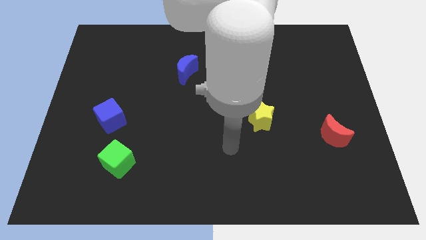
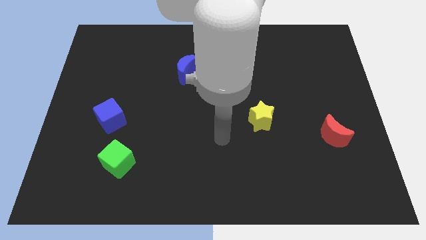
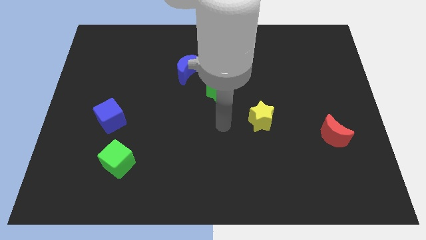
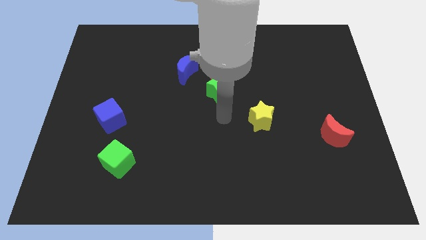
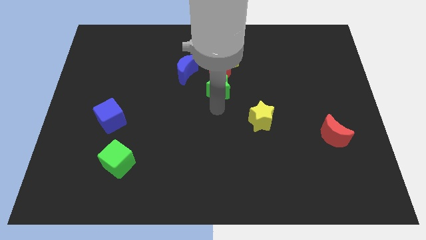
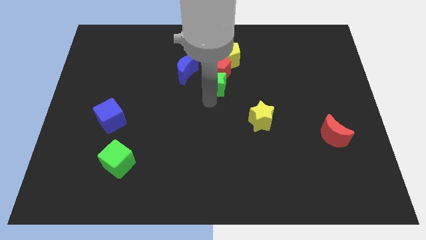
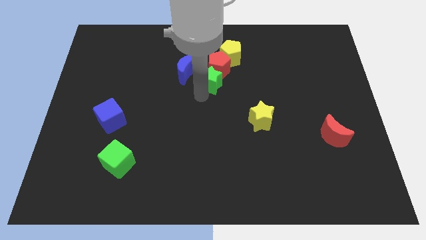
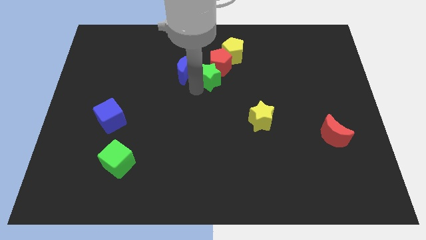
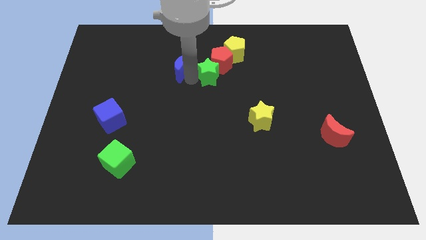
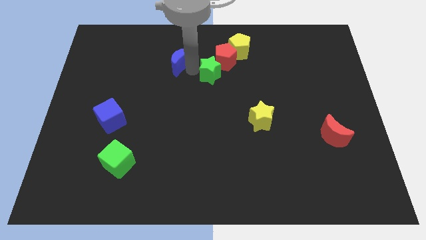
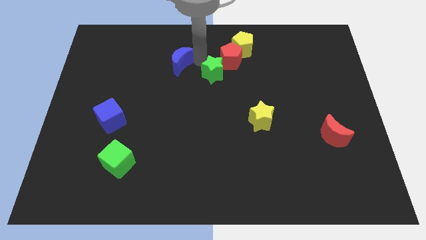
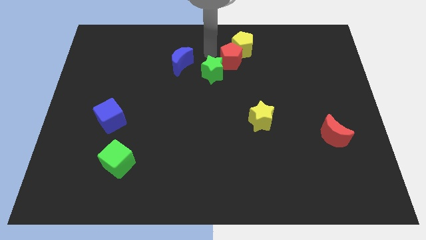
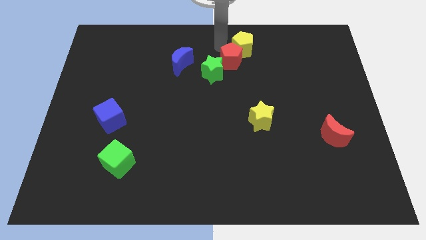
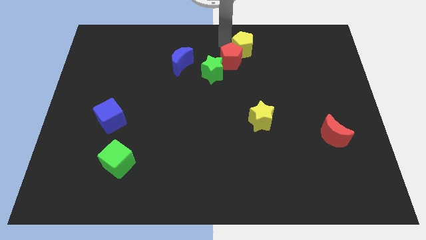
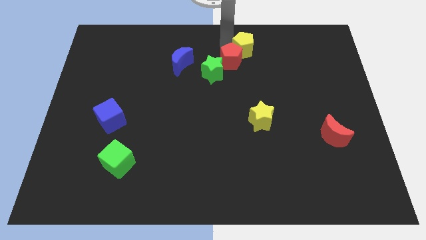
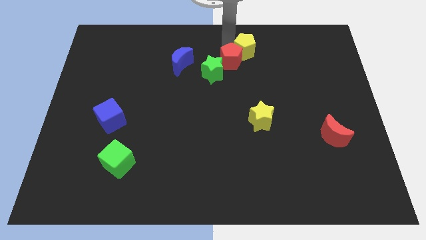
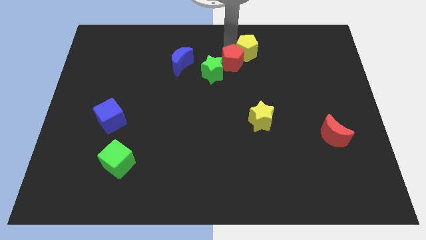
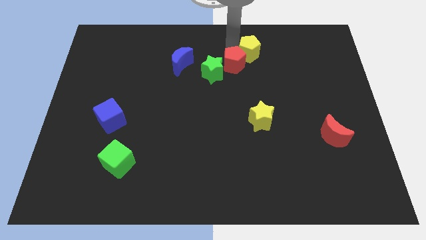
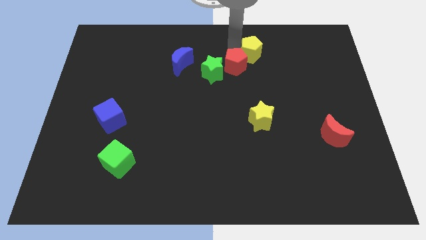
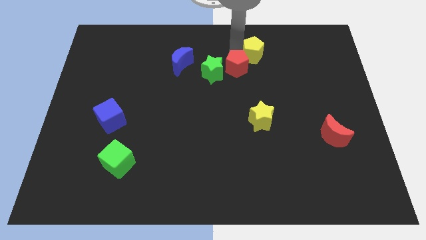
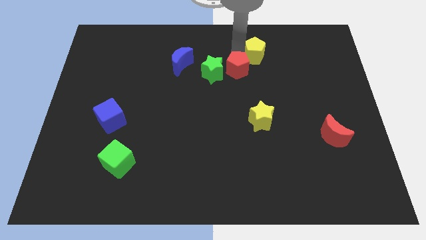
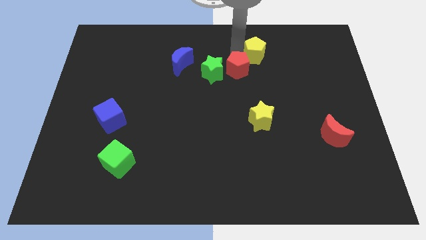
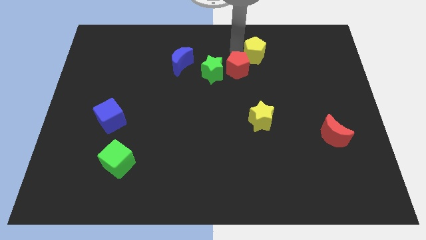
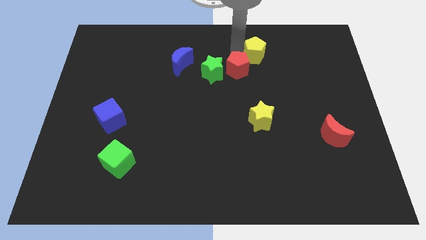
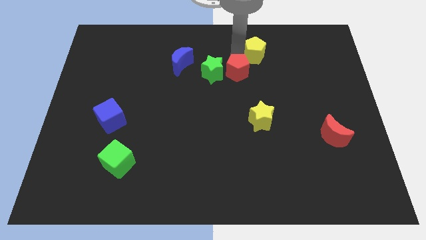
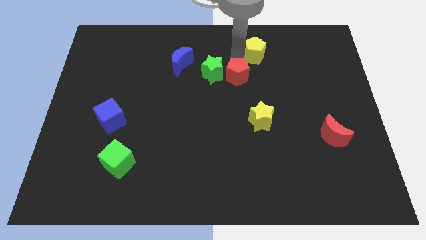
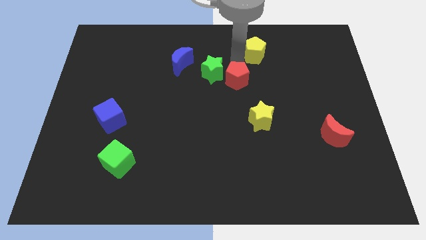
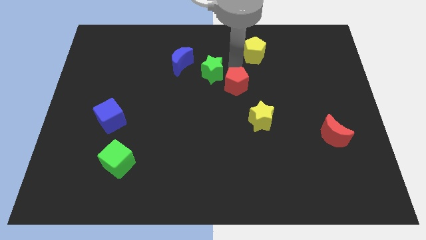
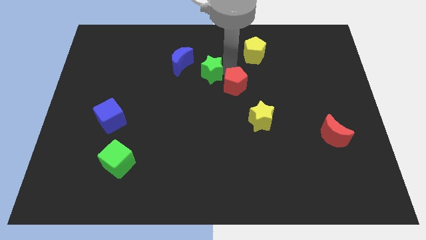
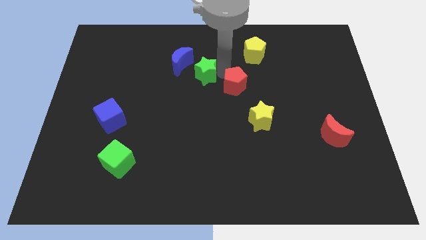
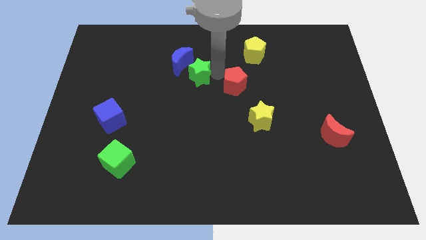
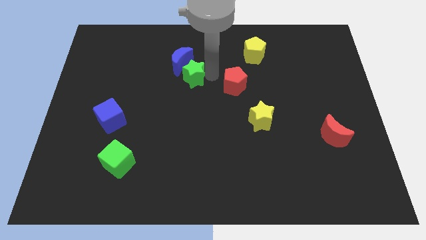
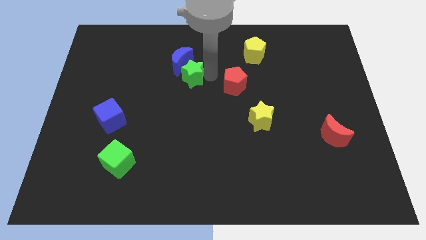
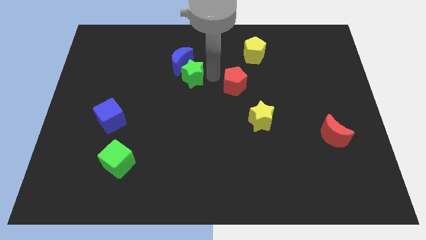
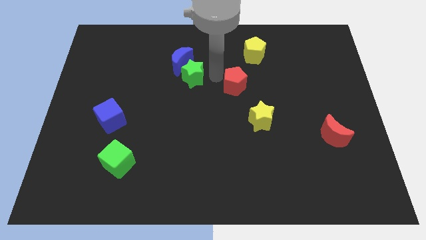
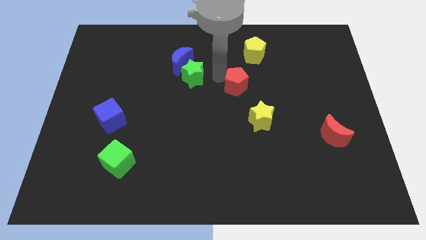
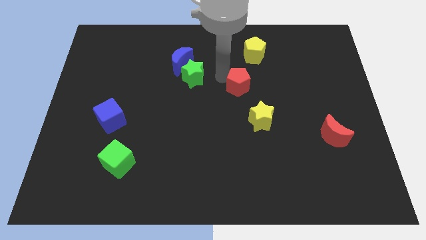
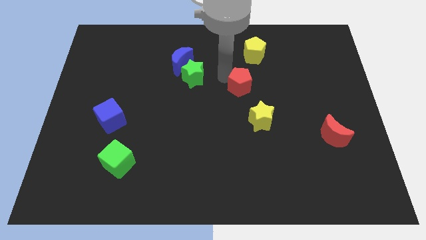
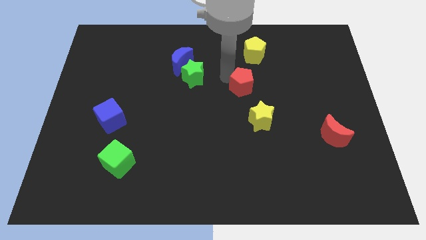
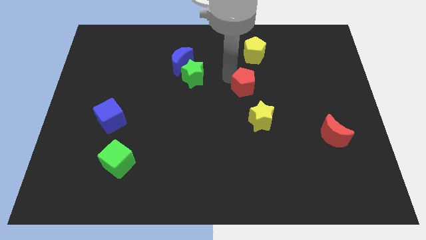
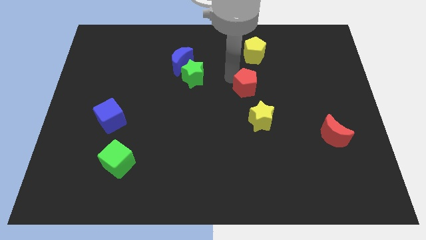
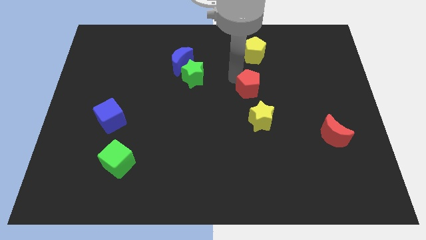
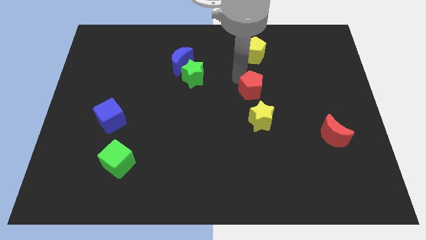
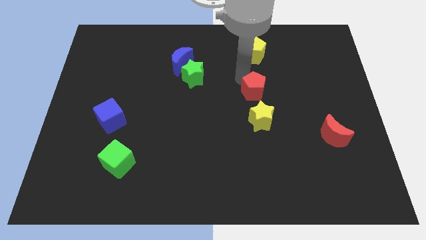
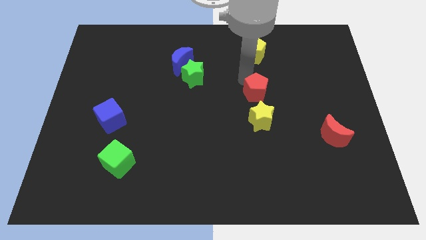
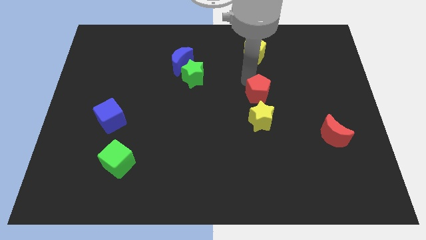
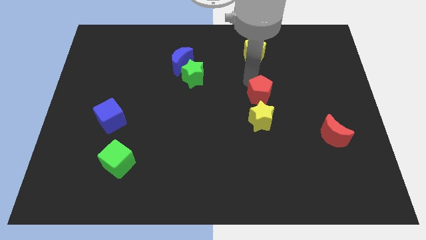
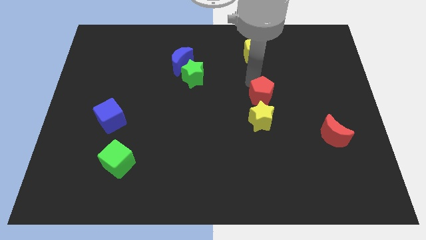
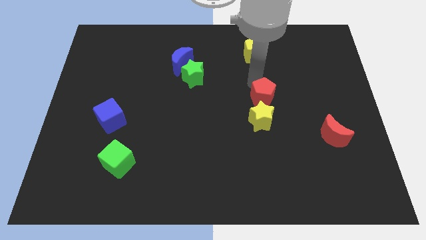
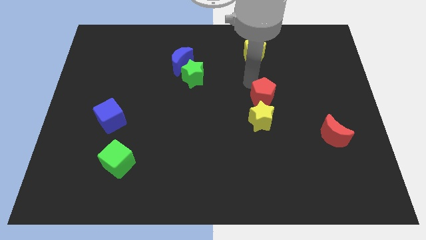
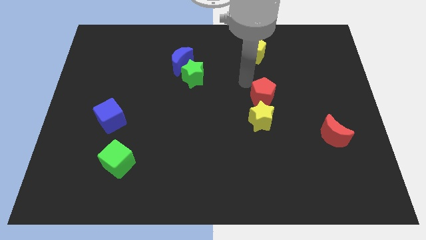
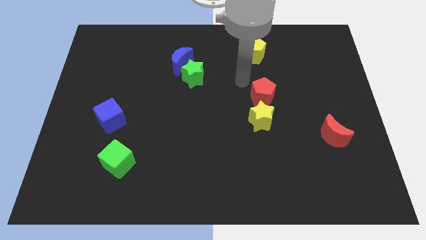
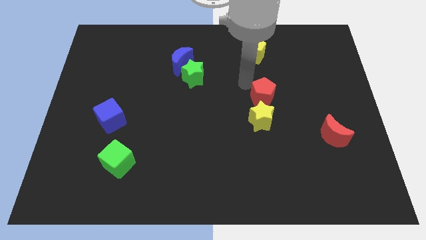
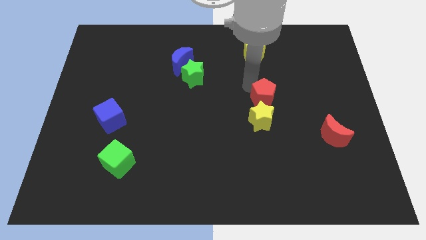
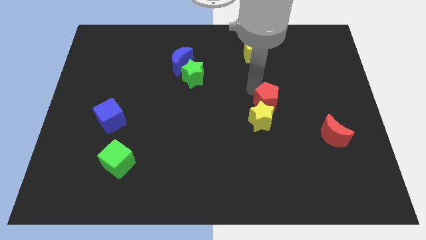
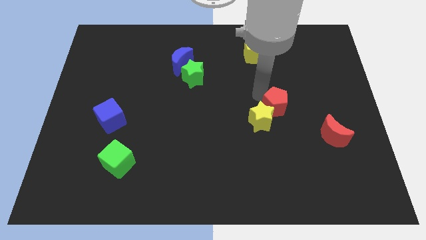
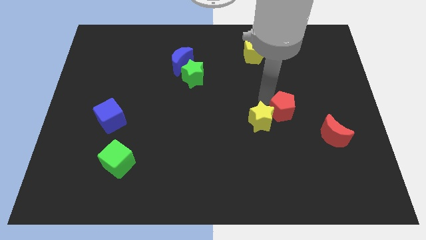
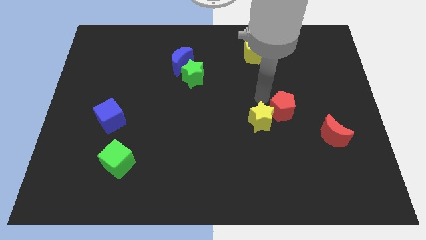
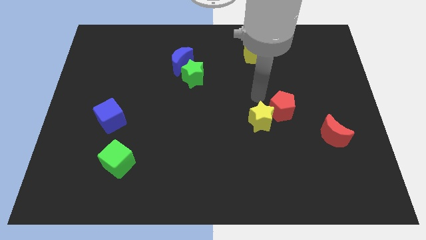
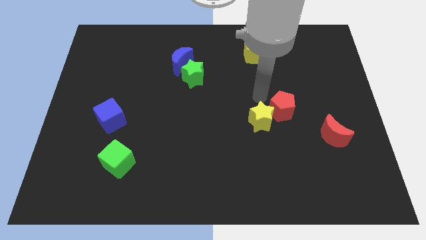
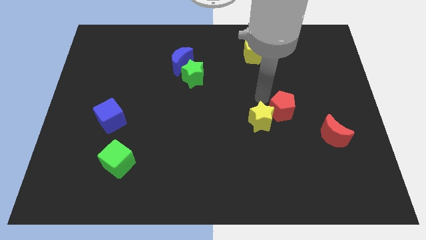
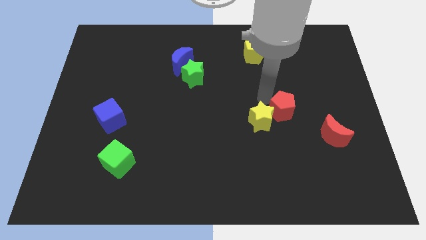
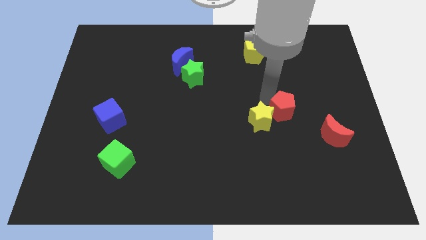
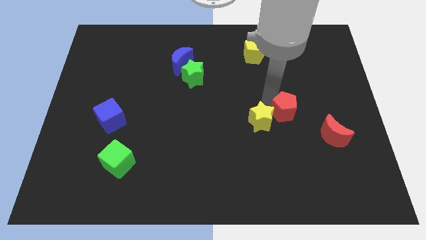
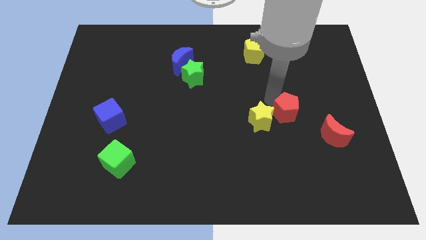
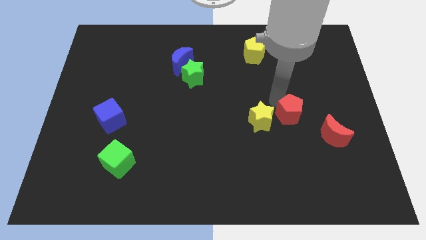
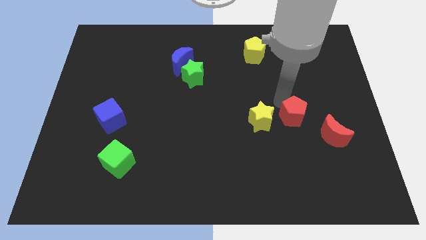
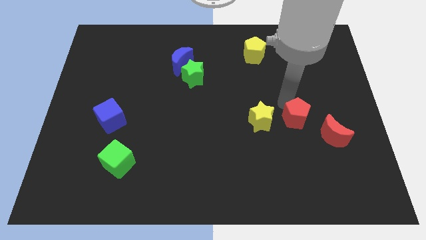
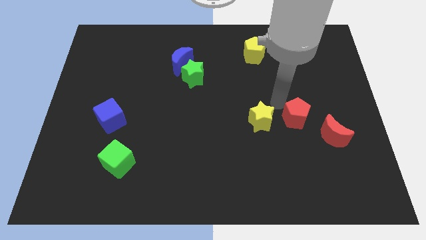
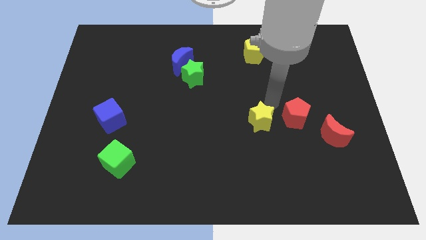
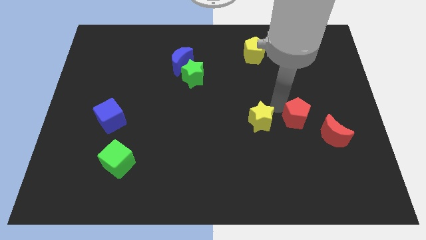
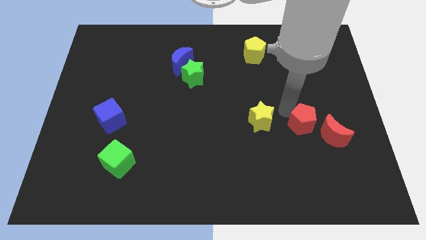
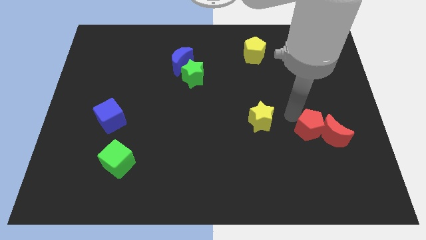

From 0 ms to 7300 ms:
slide the red pentagon close to the red moon
